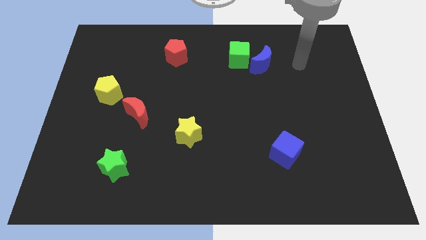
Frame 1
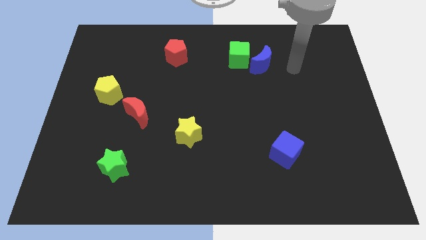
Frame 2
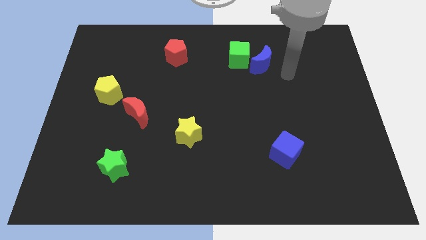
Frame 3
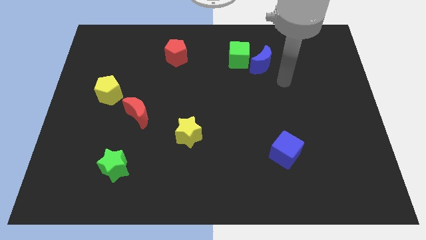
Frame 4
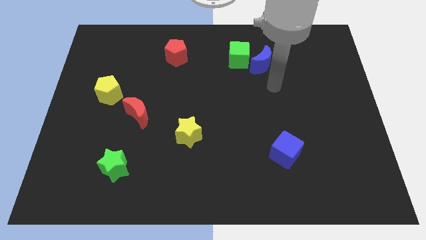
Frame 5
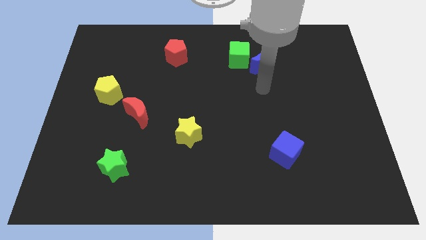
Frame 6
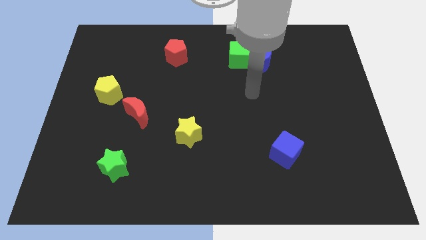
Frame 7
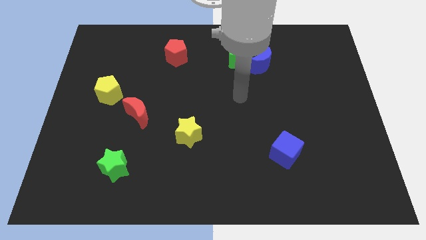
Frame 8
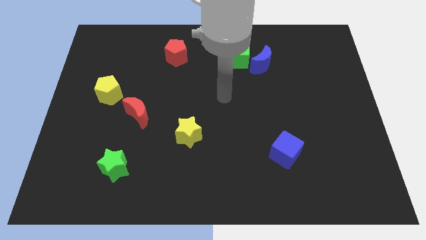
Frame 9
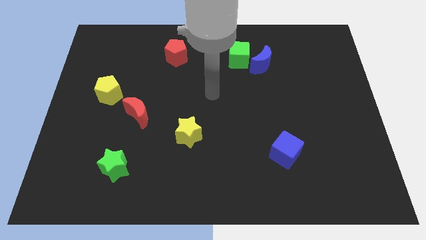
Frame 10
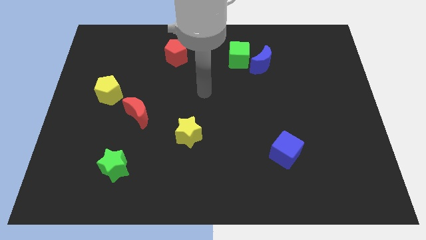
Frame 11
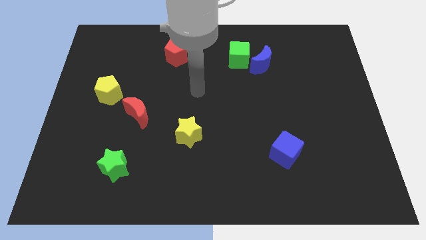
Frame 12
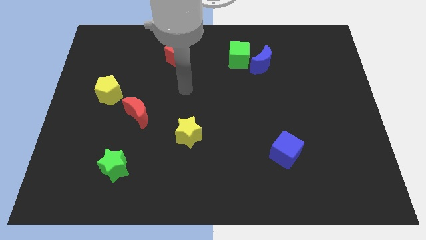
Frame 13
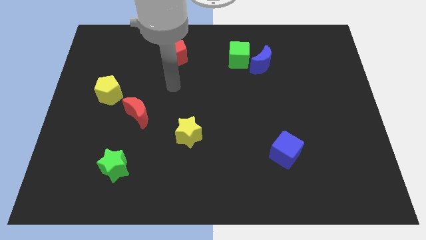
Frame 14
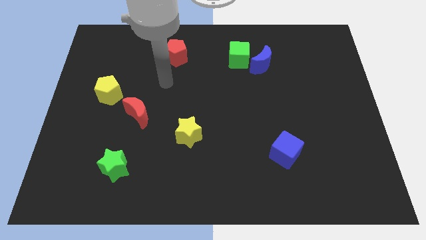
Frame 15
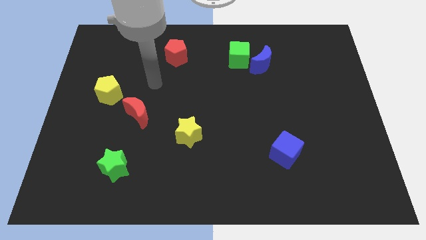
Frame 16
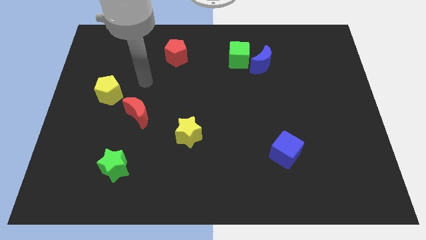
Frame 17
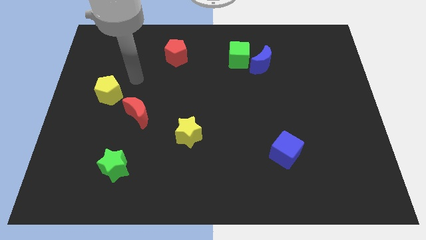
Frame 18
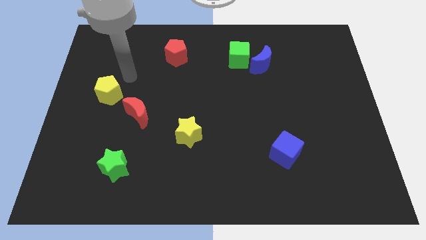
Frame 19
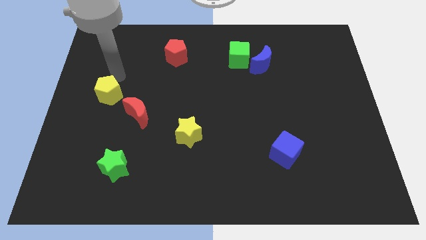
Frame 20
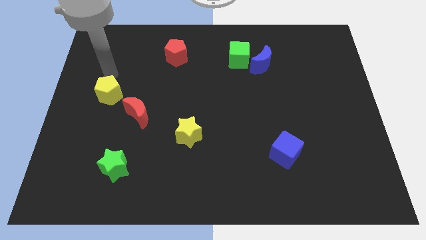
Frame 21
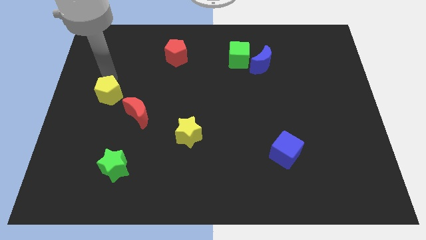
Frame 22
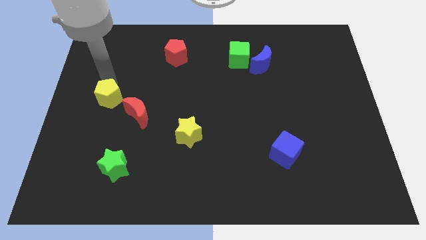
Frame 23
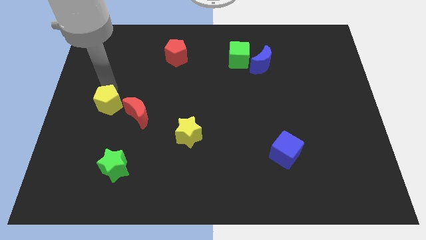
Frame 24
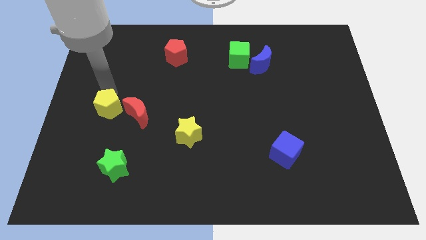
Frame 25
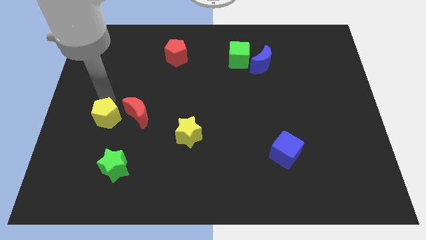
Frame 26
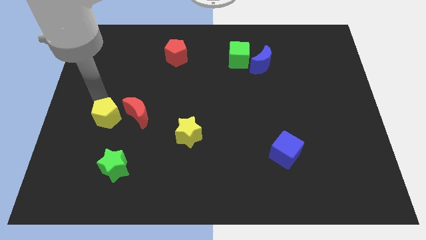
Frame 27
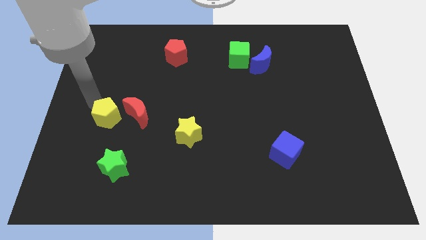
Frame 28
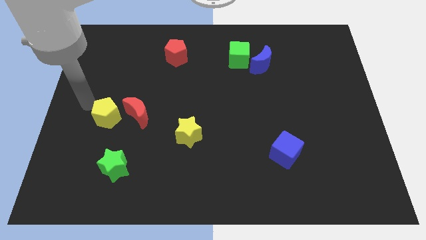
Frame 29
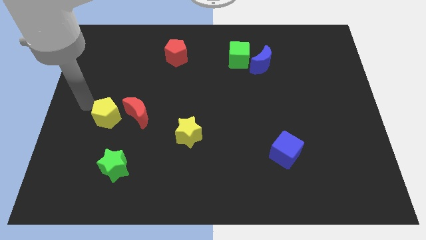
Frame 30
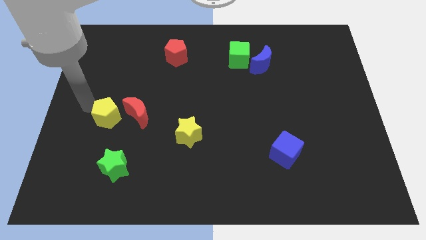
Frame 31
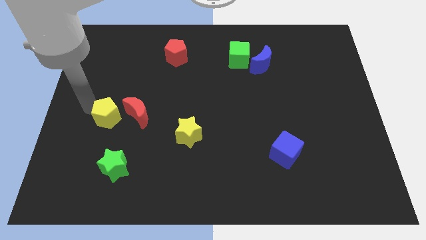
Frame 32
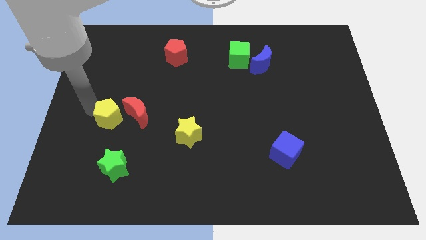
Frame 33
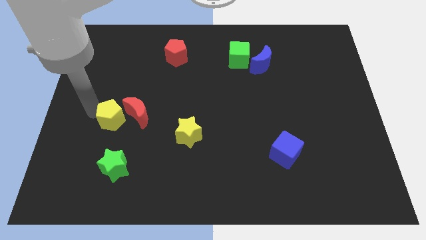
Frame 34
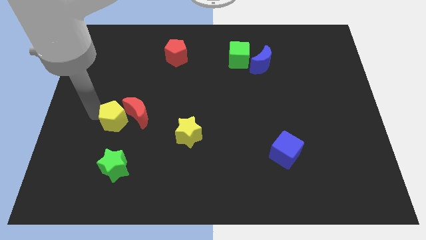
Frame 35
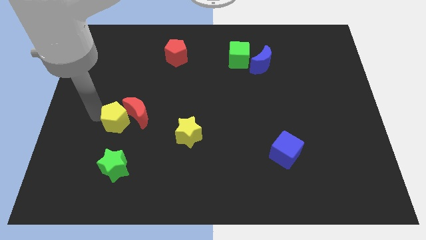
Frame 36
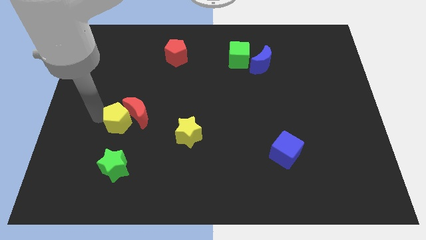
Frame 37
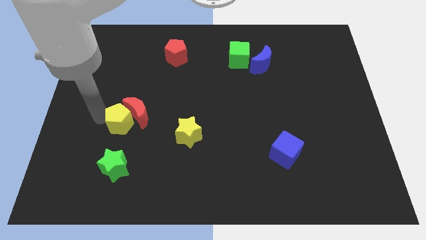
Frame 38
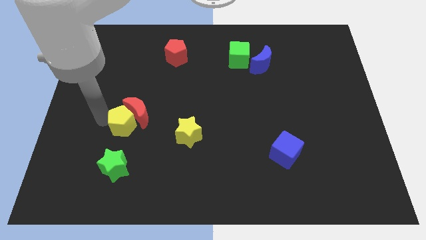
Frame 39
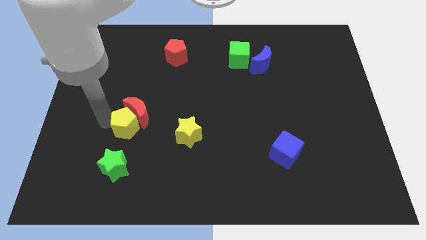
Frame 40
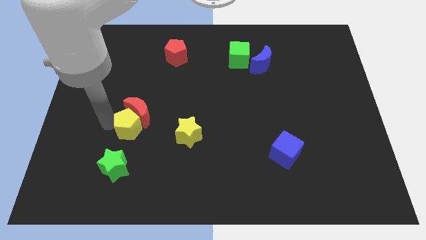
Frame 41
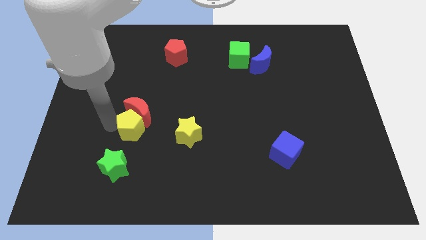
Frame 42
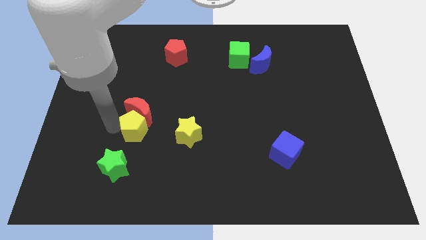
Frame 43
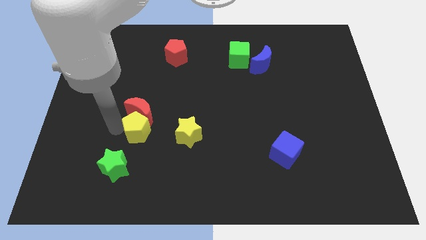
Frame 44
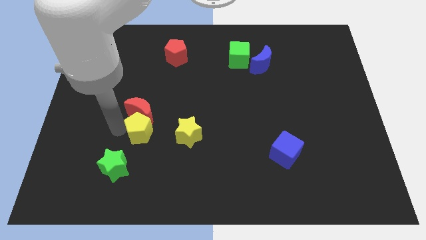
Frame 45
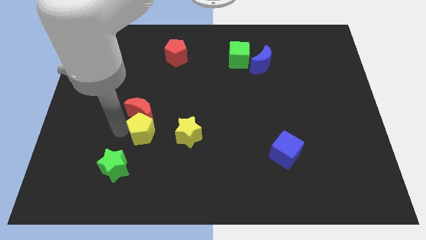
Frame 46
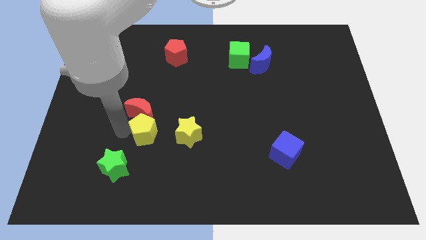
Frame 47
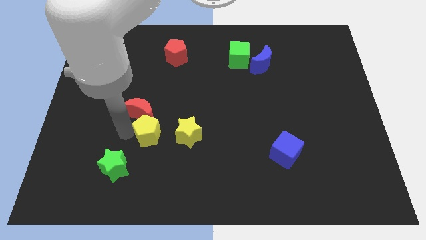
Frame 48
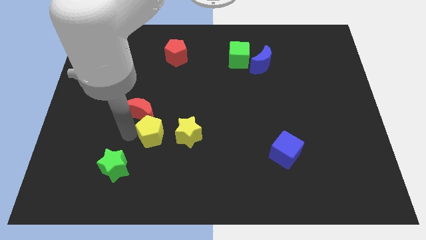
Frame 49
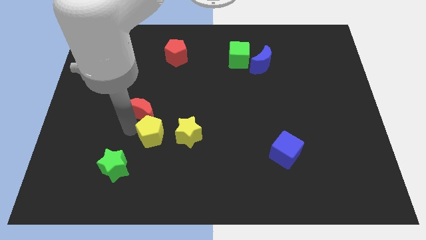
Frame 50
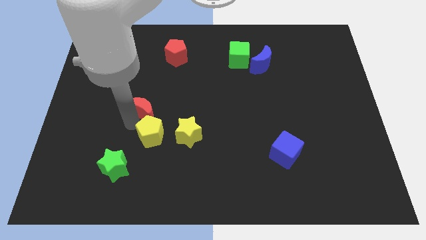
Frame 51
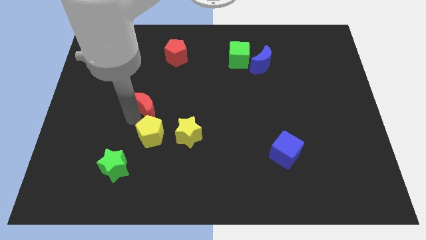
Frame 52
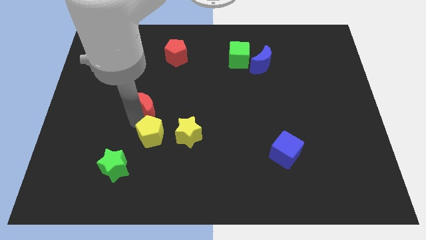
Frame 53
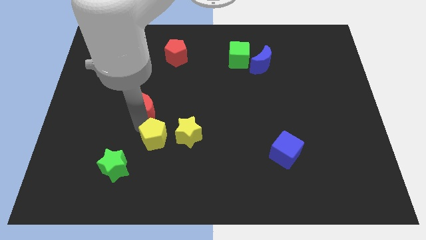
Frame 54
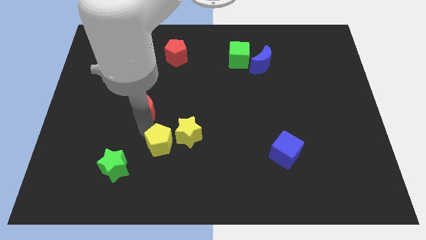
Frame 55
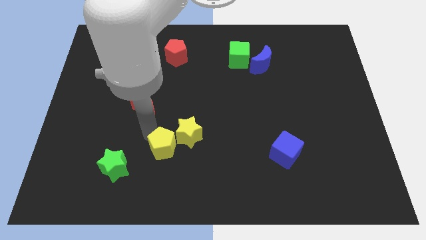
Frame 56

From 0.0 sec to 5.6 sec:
slide the yellow pentagon down and right diagonally

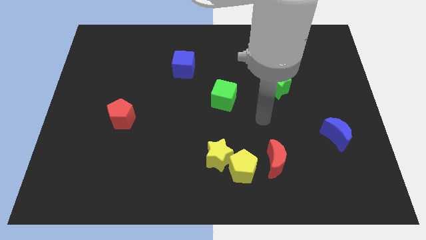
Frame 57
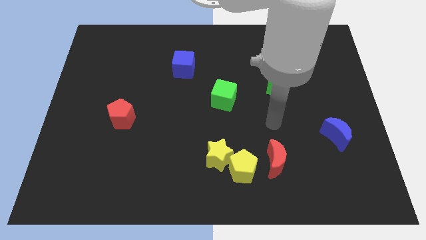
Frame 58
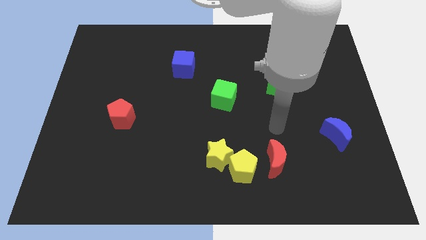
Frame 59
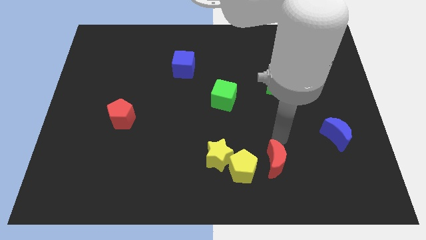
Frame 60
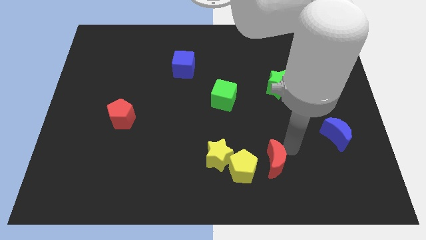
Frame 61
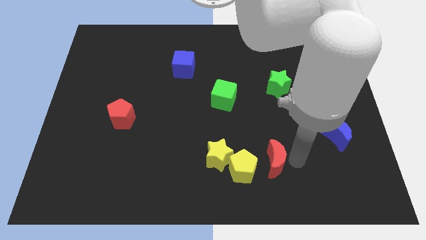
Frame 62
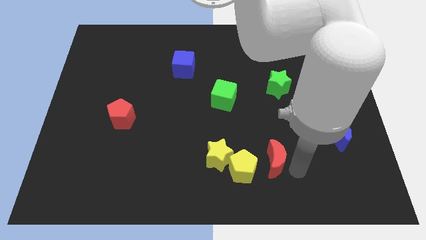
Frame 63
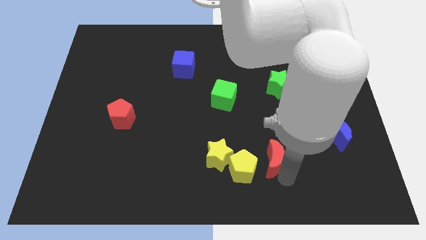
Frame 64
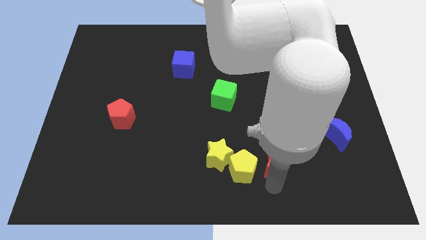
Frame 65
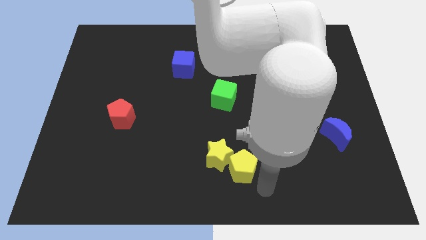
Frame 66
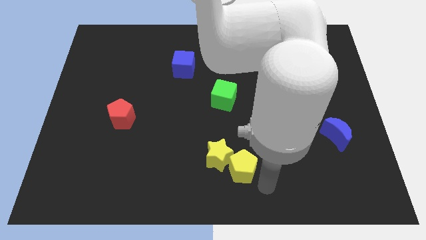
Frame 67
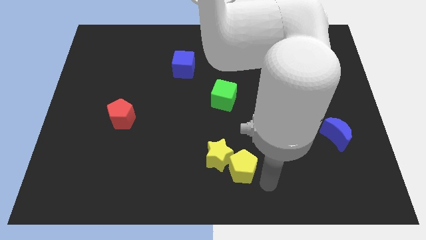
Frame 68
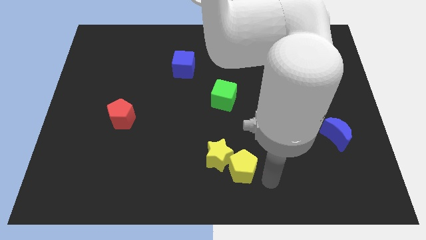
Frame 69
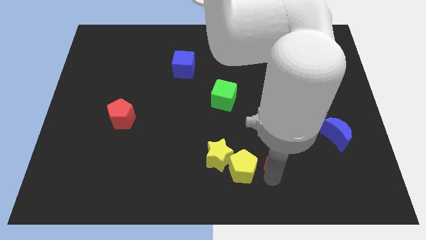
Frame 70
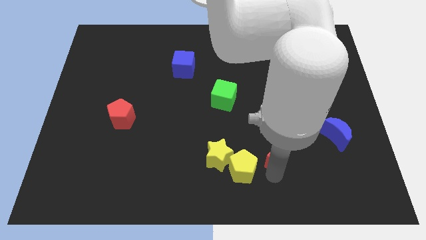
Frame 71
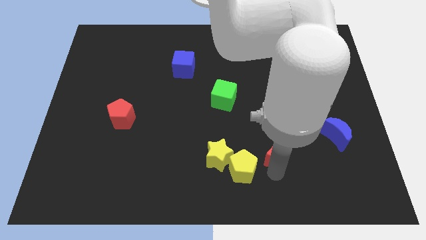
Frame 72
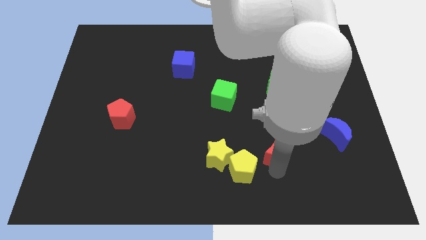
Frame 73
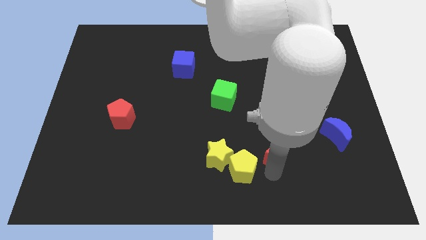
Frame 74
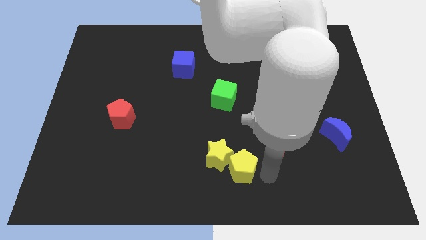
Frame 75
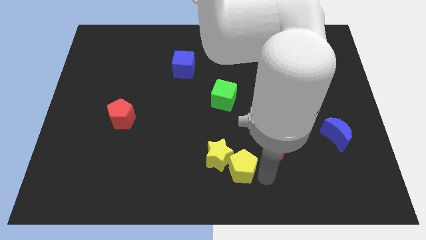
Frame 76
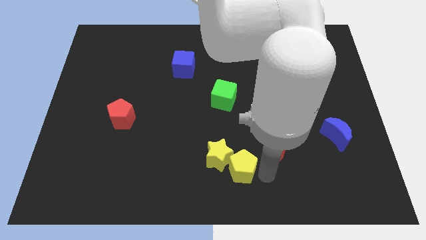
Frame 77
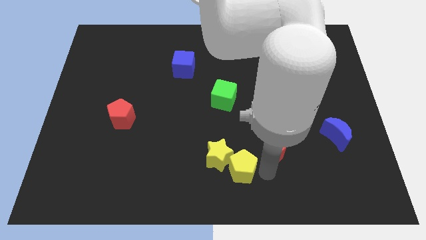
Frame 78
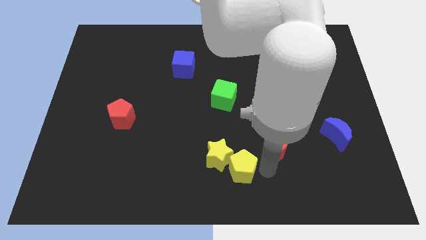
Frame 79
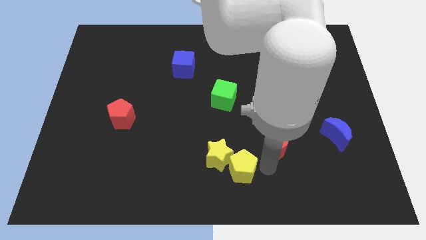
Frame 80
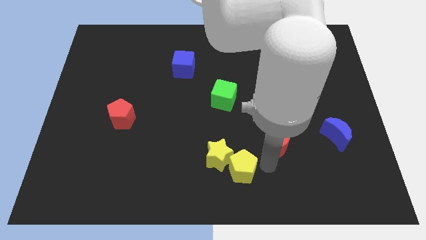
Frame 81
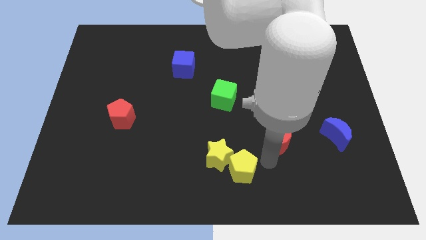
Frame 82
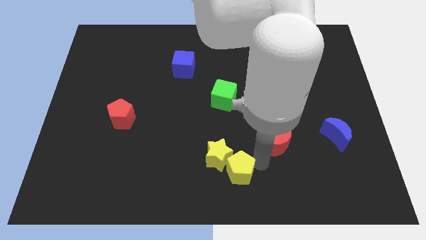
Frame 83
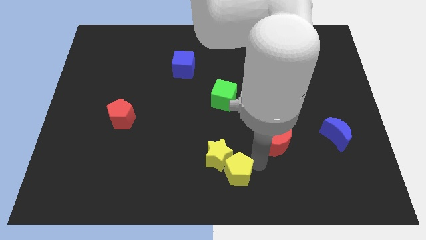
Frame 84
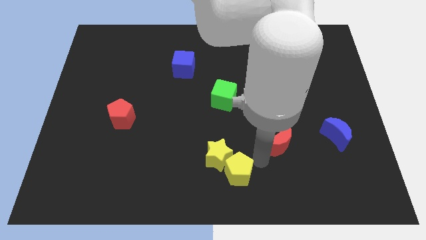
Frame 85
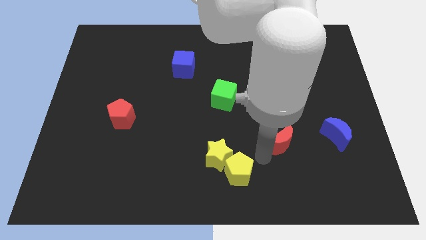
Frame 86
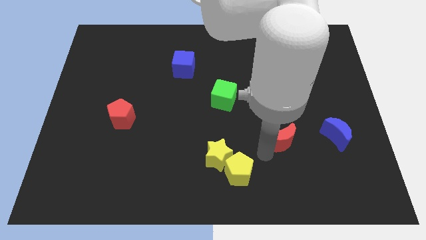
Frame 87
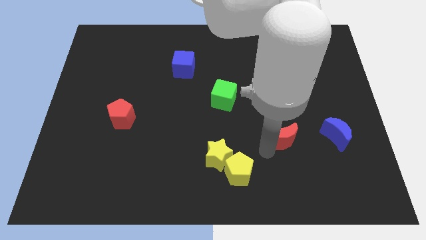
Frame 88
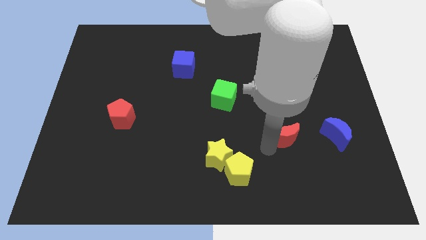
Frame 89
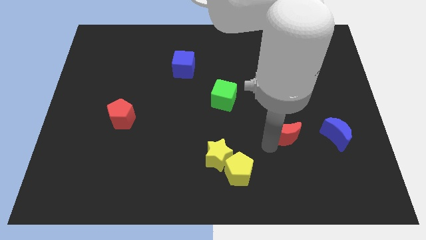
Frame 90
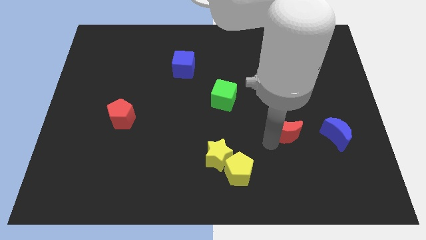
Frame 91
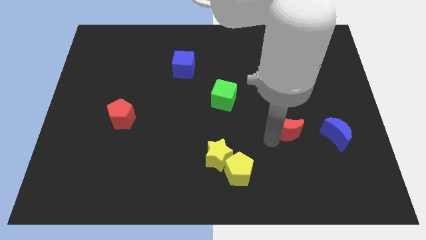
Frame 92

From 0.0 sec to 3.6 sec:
slightly slide the red moon up and then to the right
